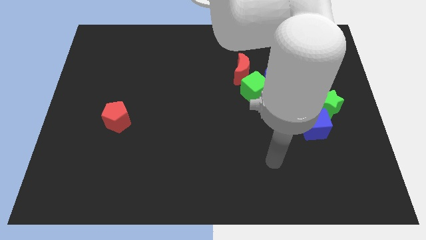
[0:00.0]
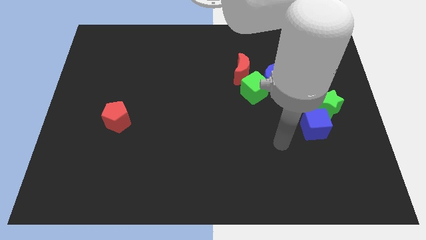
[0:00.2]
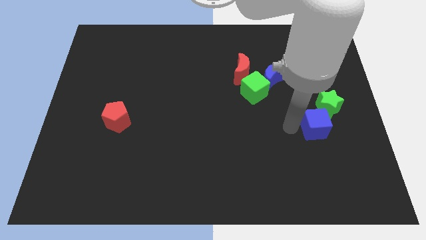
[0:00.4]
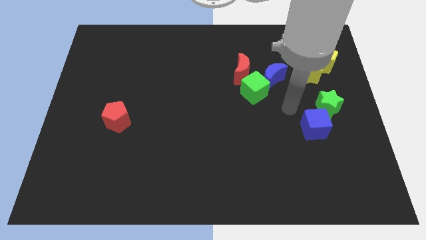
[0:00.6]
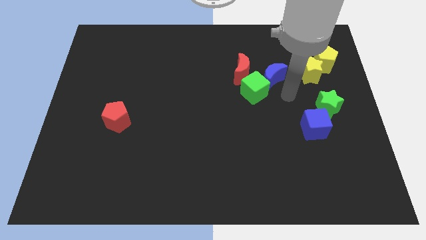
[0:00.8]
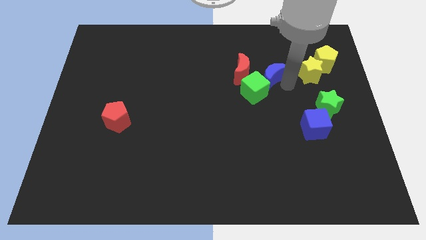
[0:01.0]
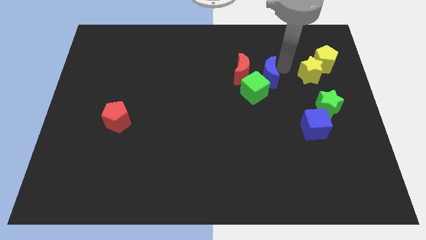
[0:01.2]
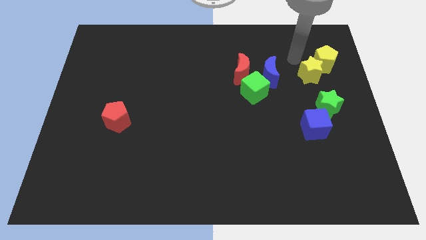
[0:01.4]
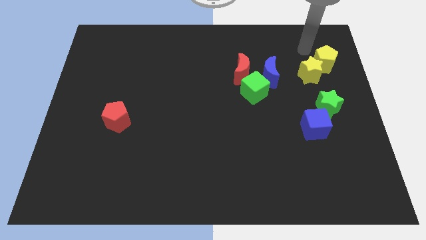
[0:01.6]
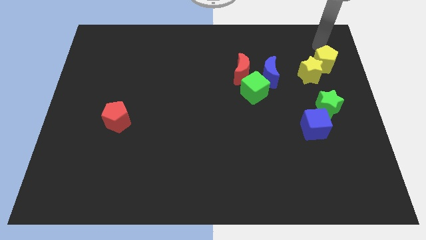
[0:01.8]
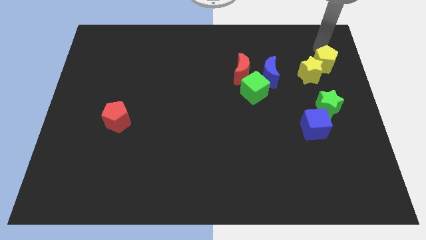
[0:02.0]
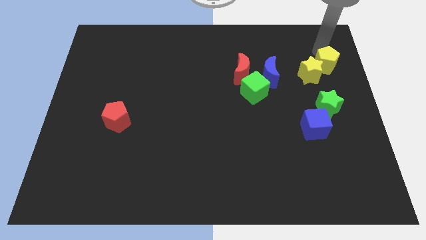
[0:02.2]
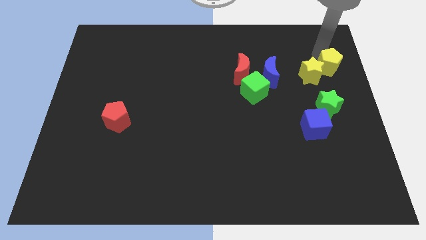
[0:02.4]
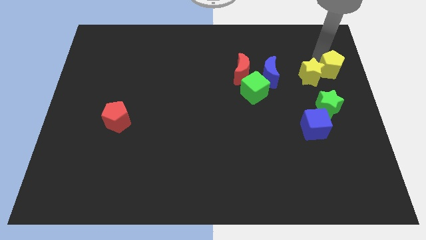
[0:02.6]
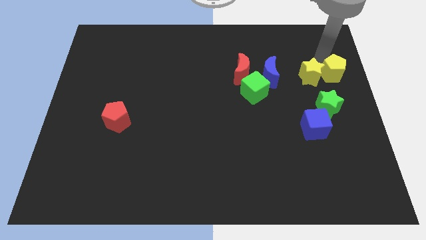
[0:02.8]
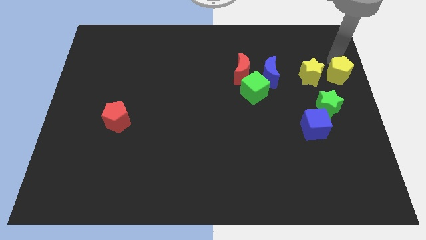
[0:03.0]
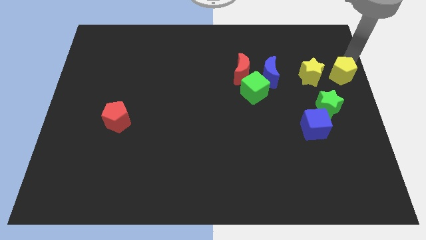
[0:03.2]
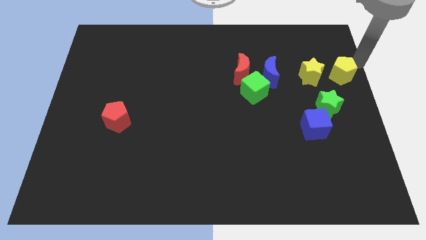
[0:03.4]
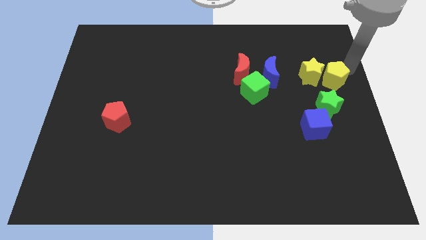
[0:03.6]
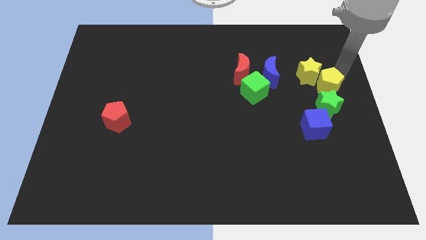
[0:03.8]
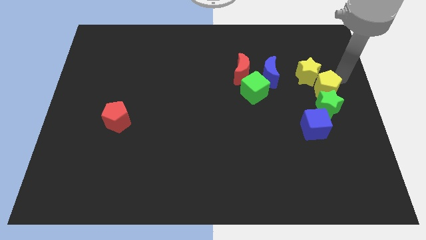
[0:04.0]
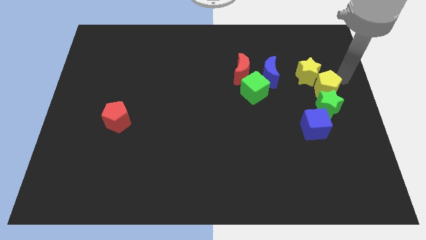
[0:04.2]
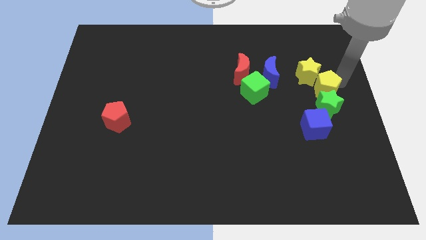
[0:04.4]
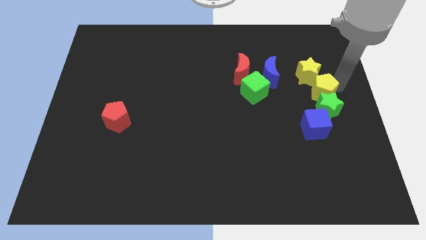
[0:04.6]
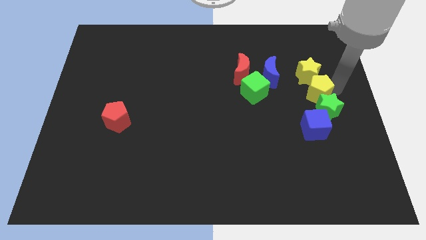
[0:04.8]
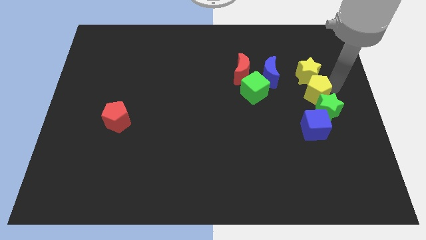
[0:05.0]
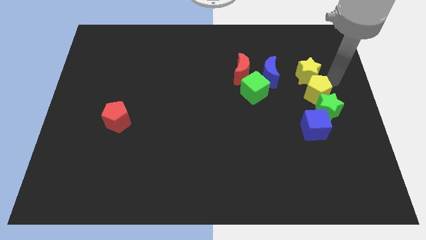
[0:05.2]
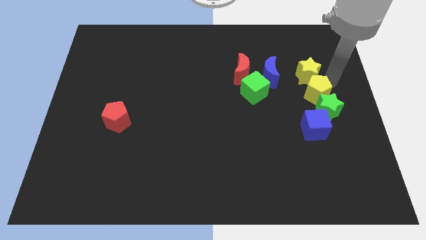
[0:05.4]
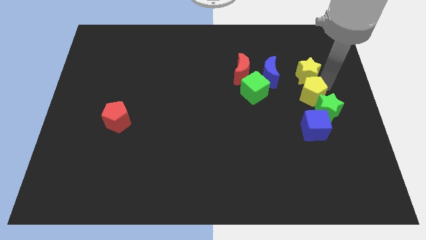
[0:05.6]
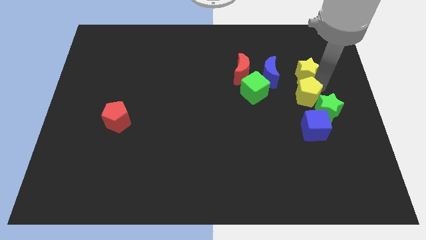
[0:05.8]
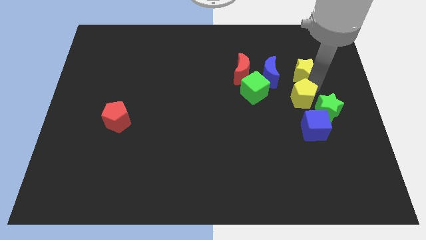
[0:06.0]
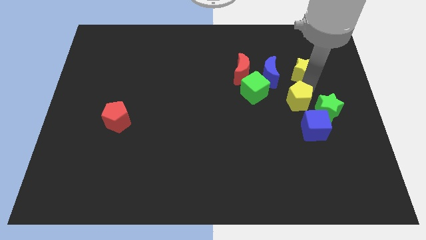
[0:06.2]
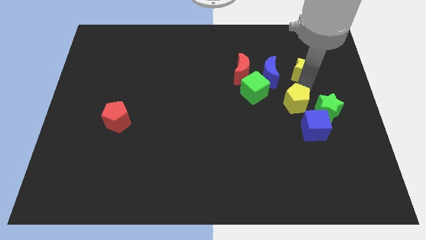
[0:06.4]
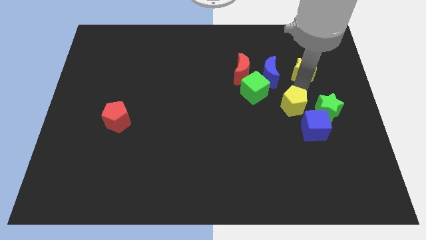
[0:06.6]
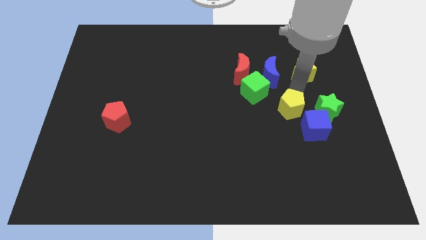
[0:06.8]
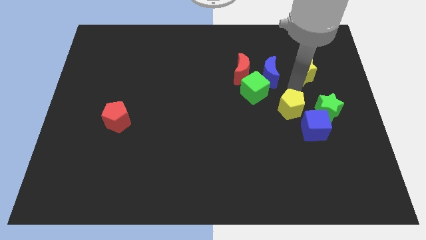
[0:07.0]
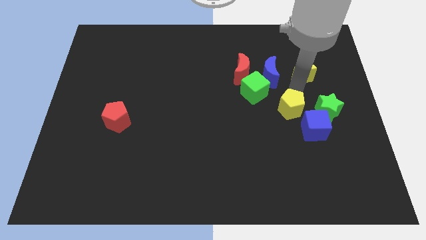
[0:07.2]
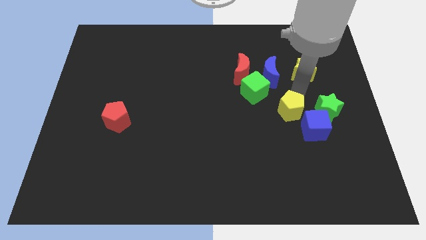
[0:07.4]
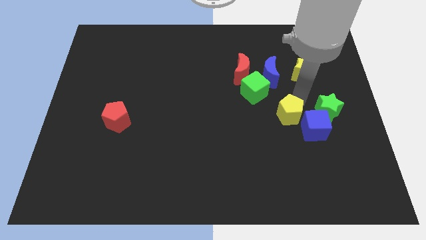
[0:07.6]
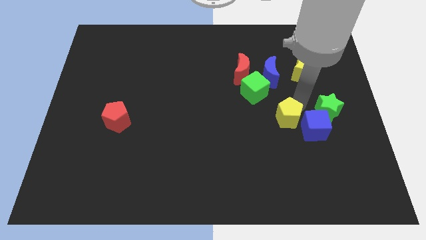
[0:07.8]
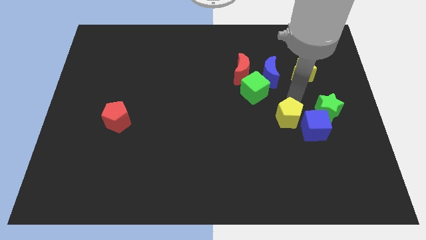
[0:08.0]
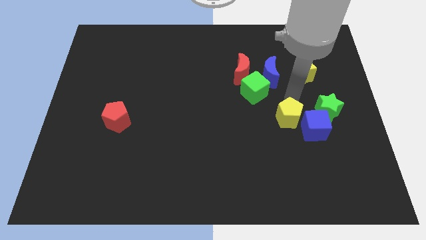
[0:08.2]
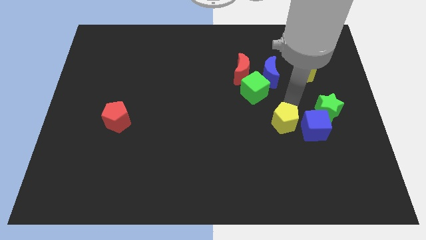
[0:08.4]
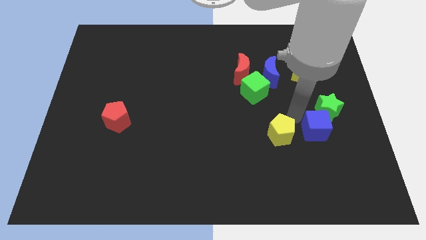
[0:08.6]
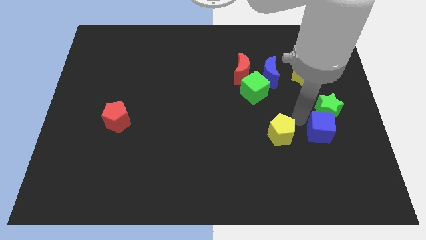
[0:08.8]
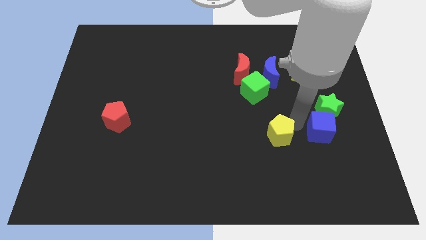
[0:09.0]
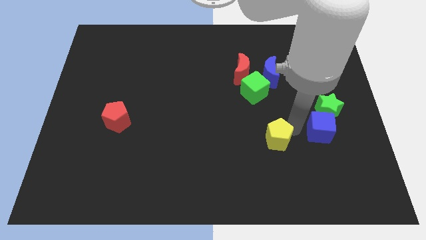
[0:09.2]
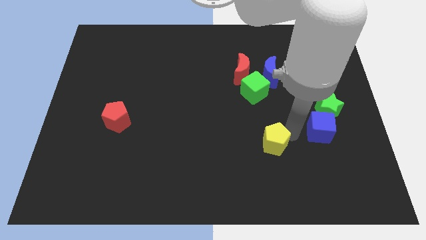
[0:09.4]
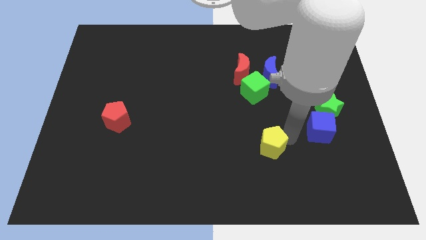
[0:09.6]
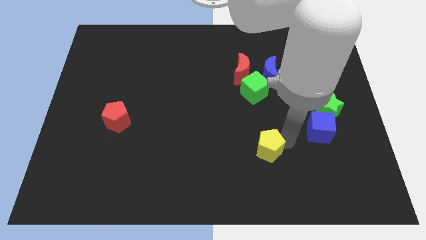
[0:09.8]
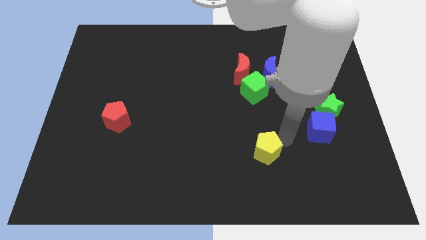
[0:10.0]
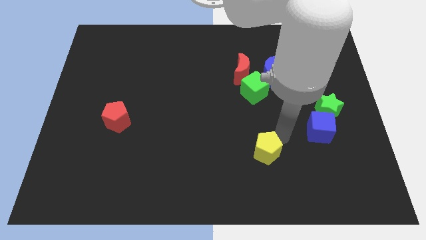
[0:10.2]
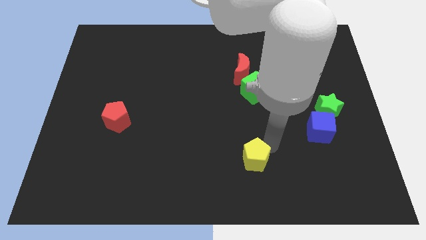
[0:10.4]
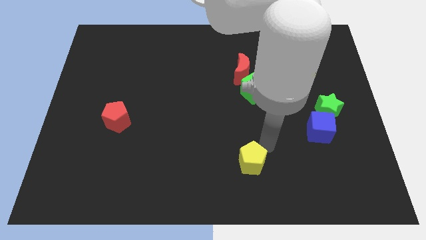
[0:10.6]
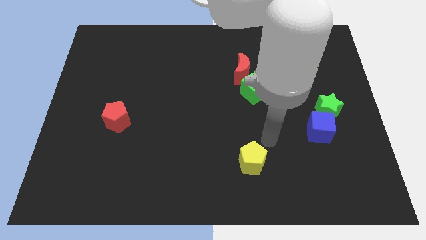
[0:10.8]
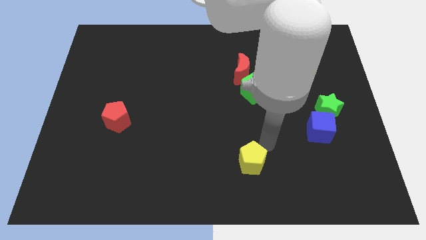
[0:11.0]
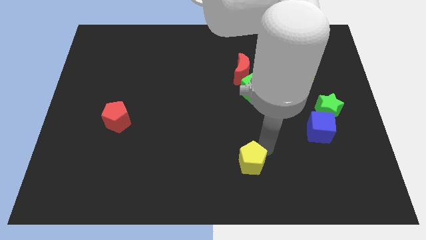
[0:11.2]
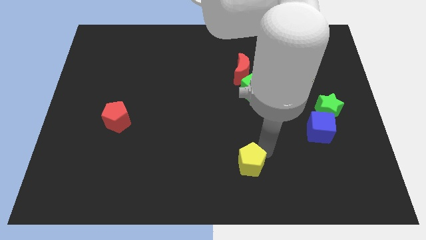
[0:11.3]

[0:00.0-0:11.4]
slide the yellow pentagon to the bottom side

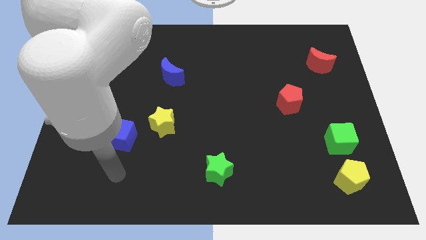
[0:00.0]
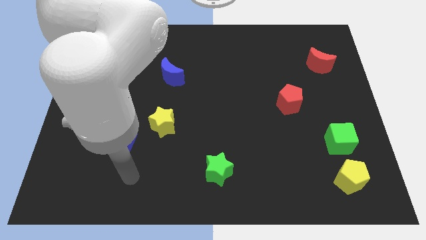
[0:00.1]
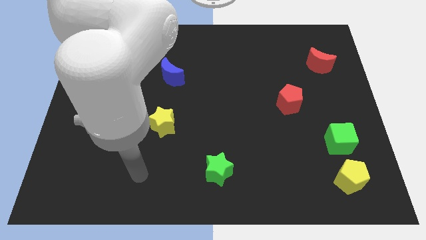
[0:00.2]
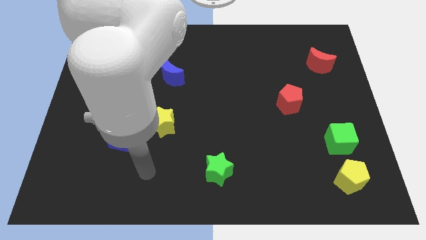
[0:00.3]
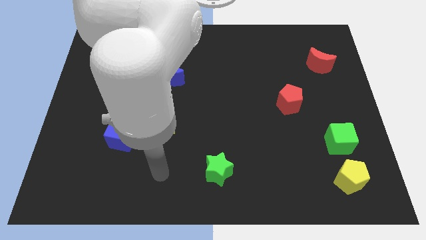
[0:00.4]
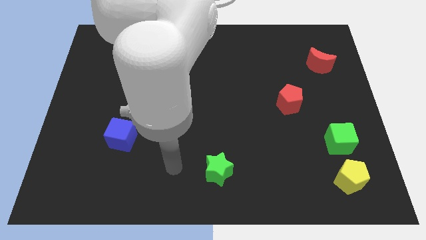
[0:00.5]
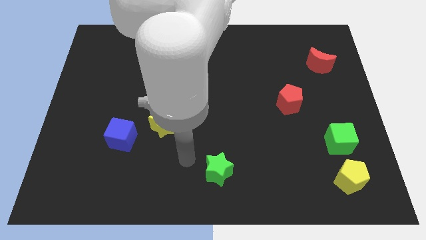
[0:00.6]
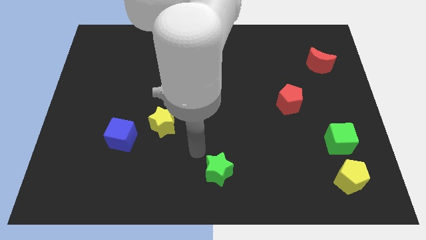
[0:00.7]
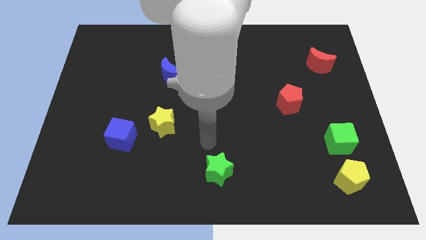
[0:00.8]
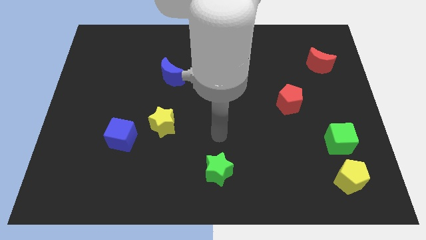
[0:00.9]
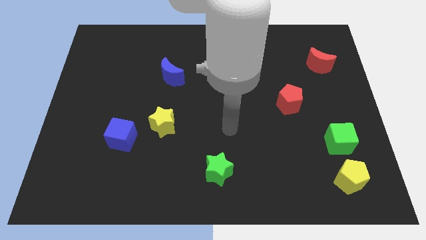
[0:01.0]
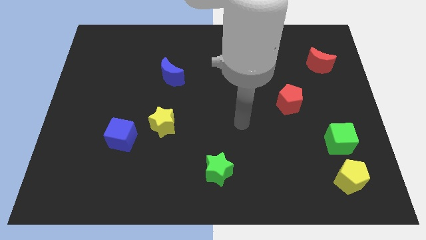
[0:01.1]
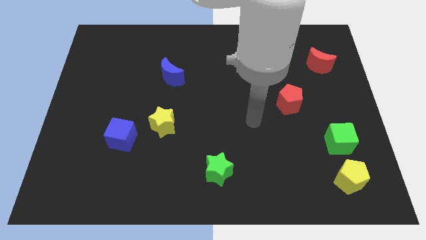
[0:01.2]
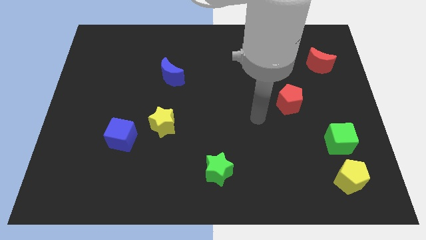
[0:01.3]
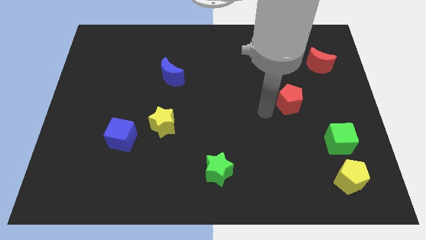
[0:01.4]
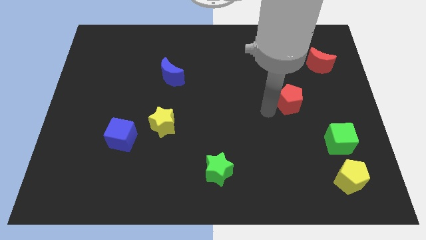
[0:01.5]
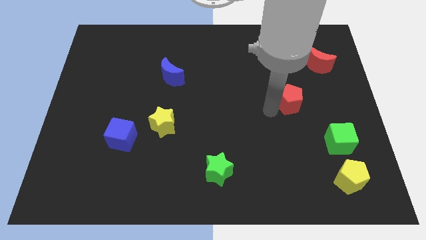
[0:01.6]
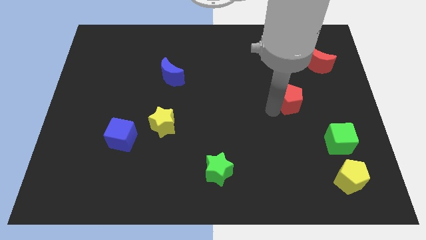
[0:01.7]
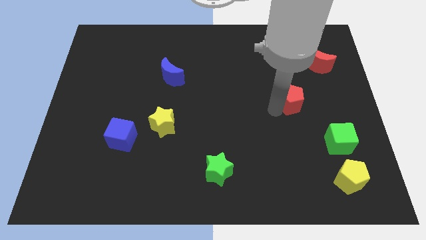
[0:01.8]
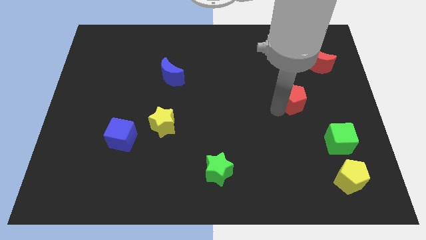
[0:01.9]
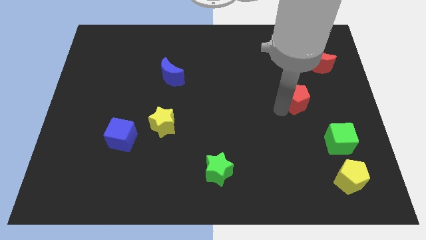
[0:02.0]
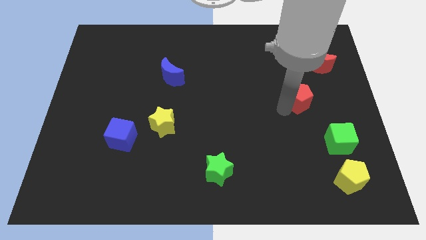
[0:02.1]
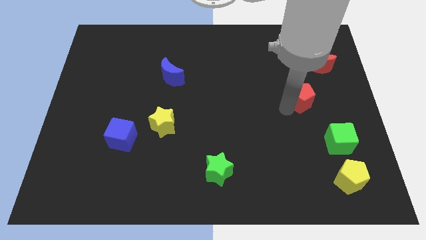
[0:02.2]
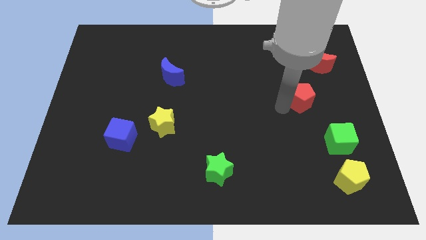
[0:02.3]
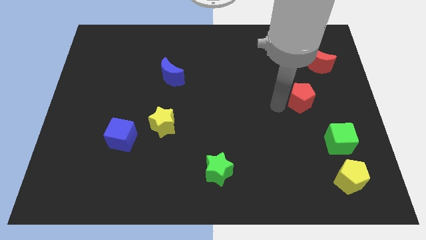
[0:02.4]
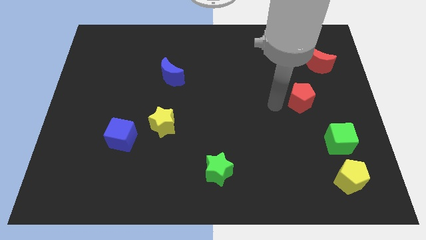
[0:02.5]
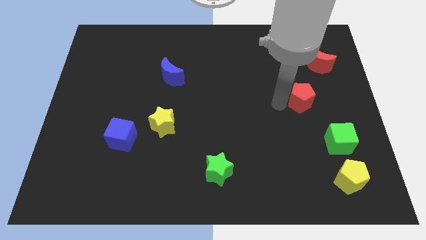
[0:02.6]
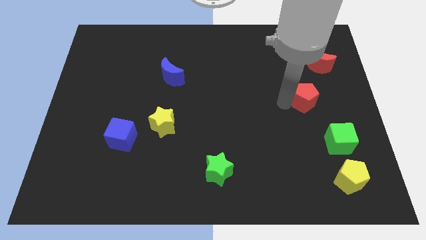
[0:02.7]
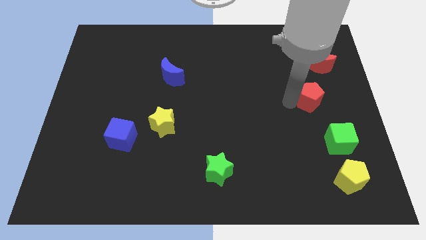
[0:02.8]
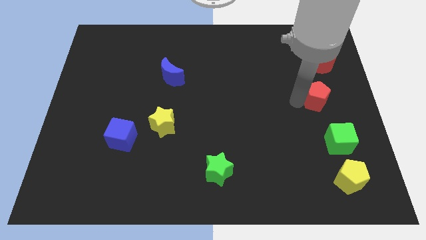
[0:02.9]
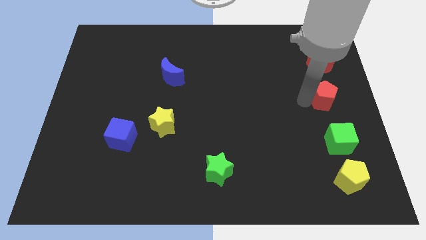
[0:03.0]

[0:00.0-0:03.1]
slide the red pentagon to the right side of the board
